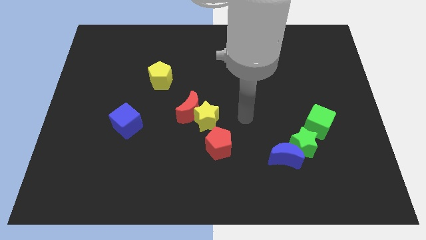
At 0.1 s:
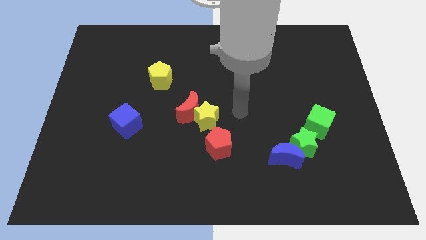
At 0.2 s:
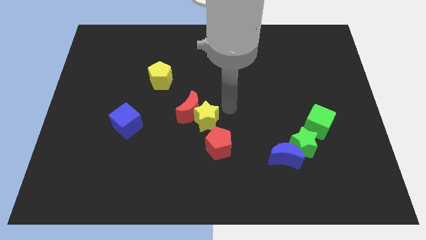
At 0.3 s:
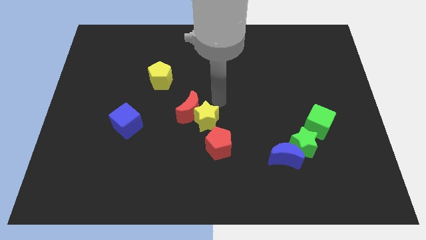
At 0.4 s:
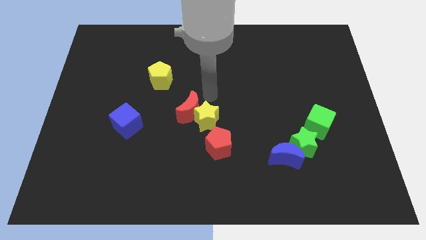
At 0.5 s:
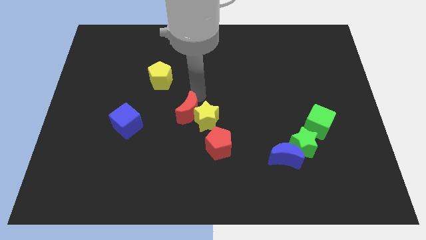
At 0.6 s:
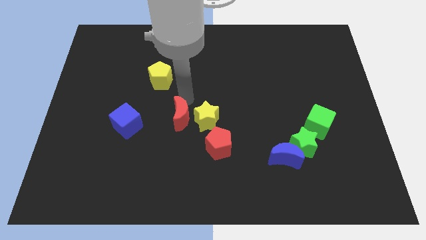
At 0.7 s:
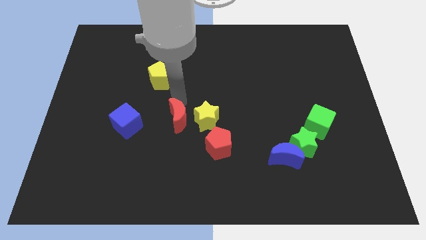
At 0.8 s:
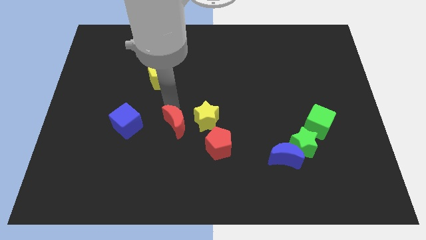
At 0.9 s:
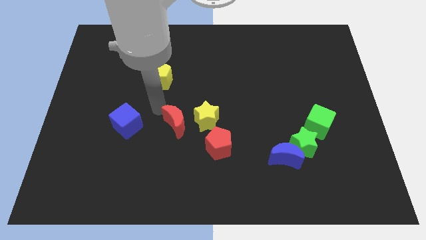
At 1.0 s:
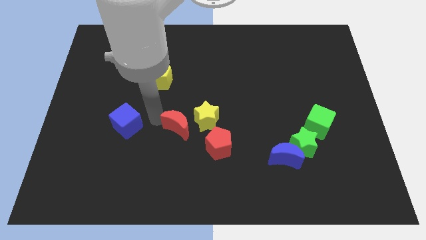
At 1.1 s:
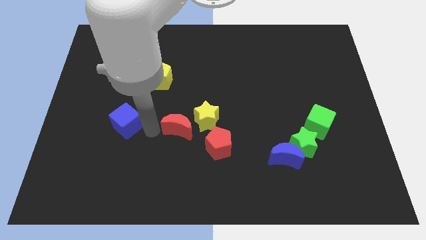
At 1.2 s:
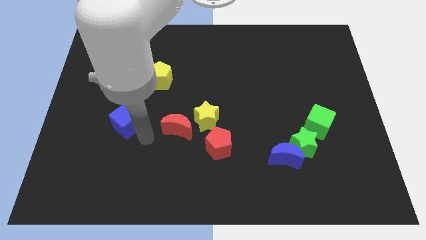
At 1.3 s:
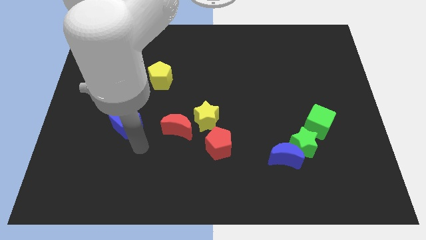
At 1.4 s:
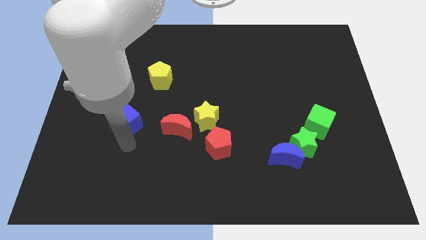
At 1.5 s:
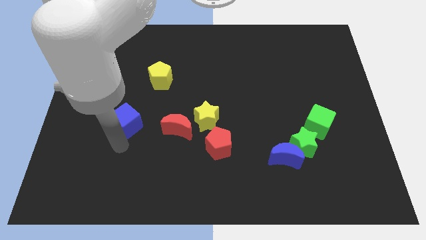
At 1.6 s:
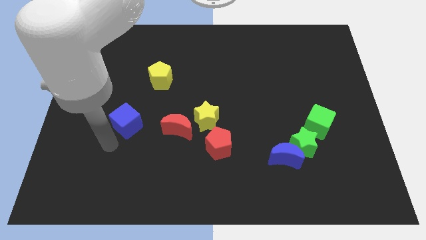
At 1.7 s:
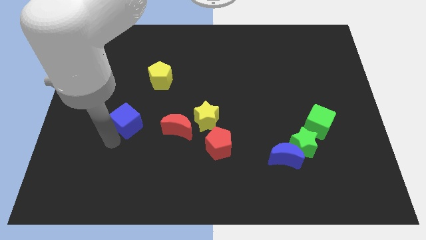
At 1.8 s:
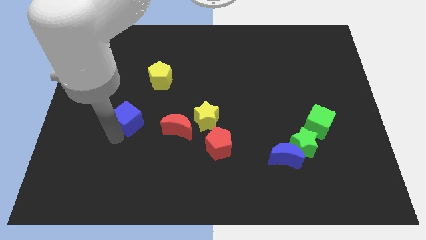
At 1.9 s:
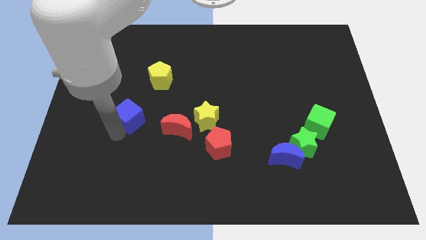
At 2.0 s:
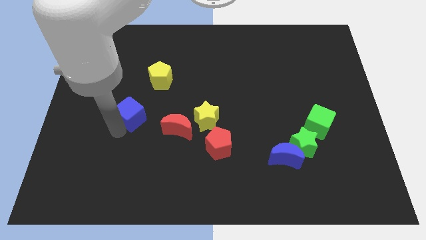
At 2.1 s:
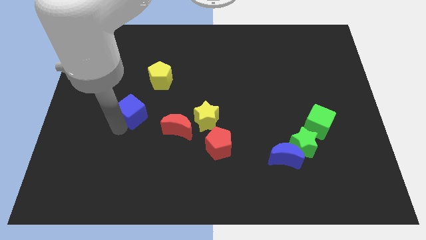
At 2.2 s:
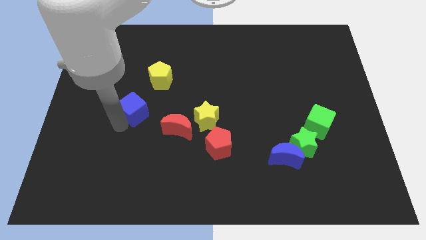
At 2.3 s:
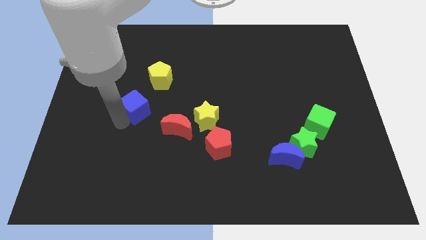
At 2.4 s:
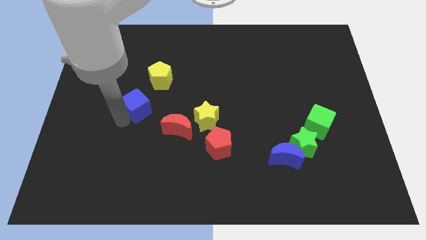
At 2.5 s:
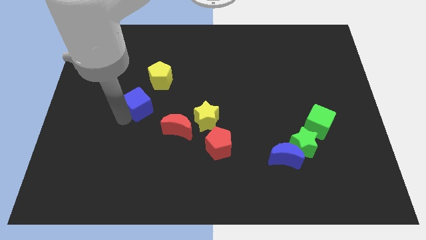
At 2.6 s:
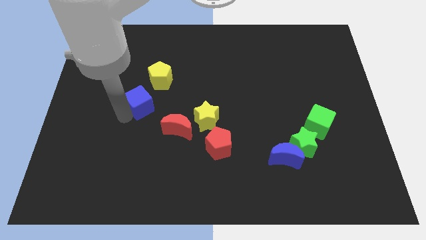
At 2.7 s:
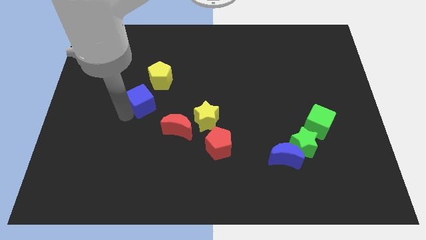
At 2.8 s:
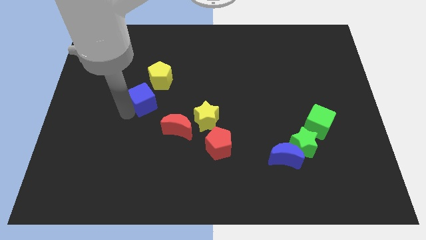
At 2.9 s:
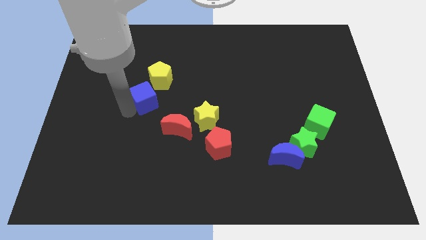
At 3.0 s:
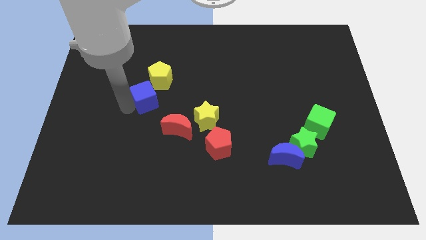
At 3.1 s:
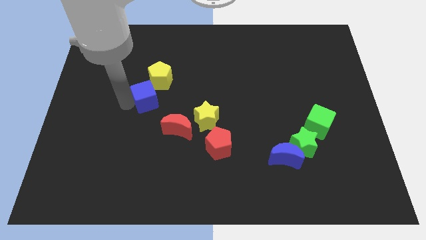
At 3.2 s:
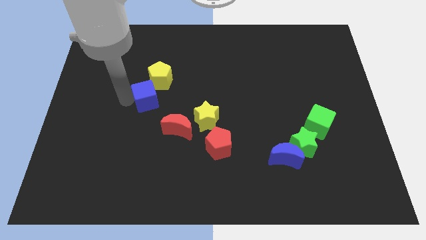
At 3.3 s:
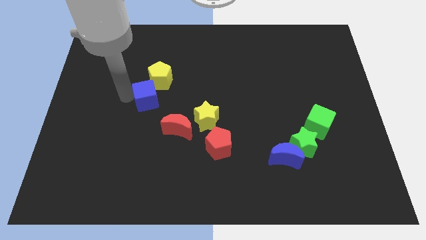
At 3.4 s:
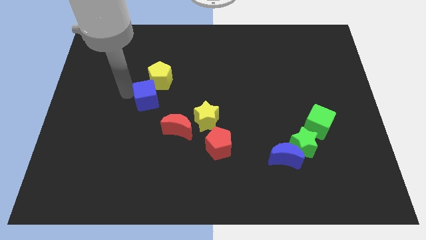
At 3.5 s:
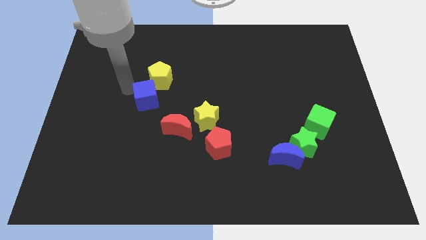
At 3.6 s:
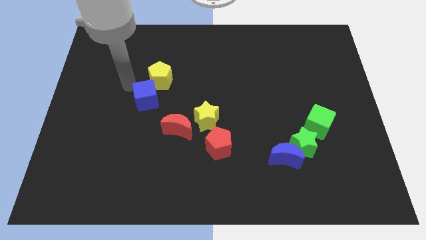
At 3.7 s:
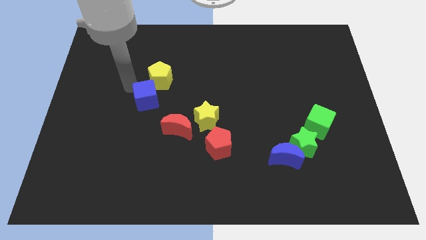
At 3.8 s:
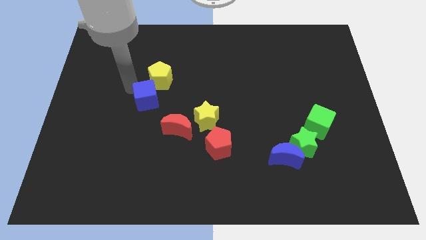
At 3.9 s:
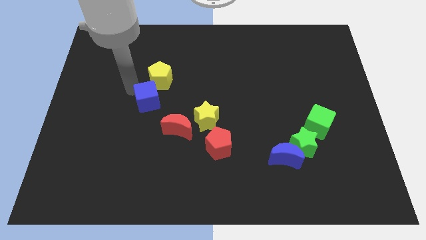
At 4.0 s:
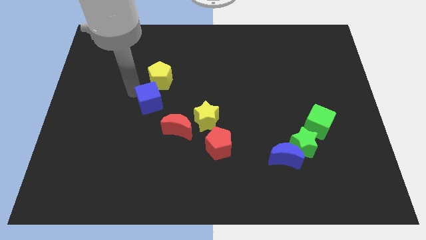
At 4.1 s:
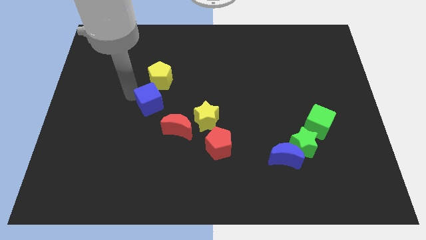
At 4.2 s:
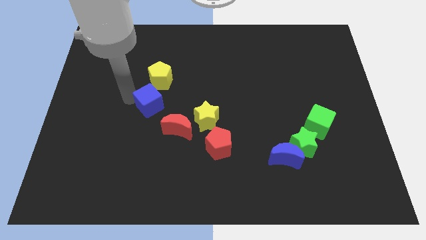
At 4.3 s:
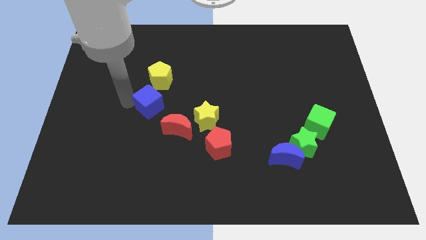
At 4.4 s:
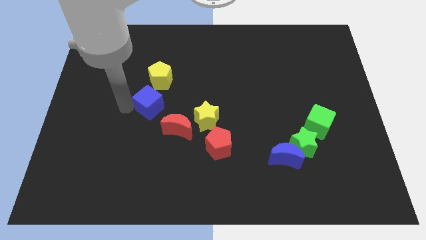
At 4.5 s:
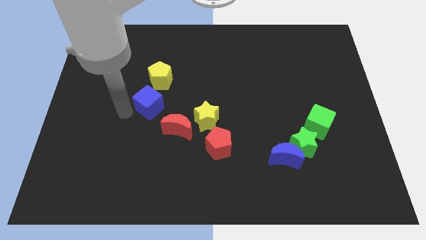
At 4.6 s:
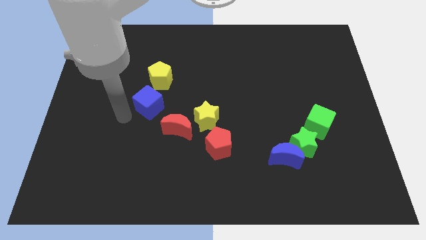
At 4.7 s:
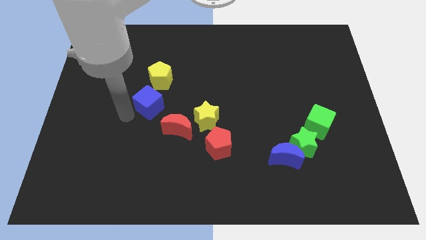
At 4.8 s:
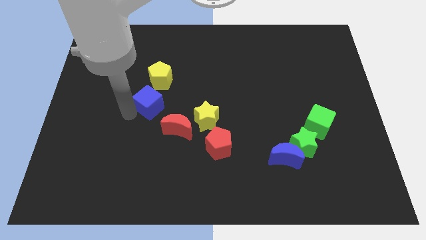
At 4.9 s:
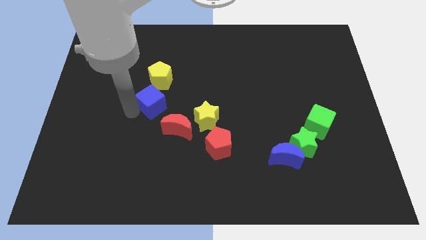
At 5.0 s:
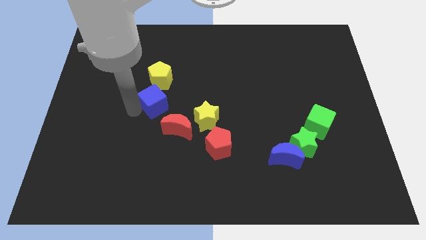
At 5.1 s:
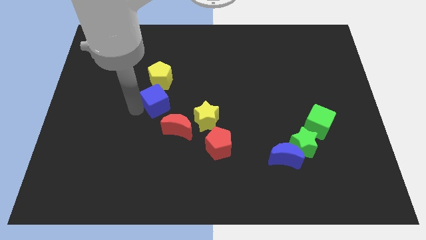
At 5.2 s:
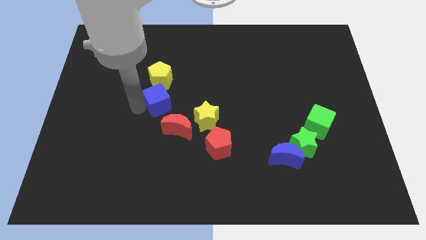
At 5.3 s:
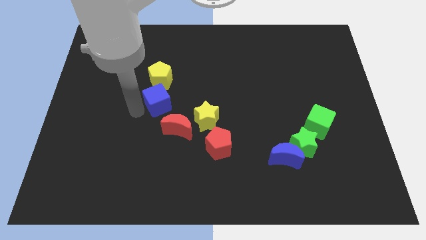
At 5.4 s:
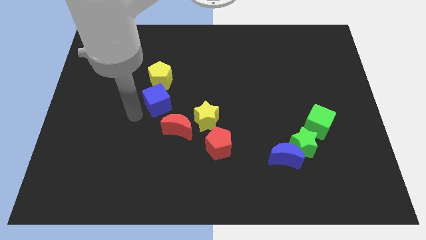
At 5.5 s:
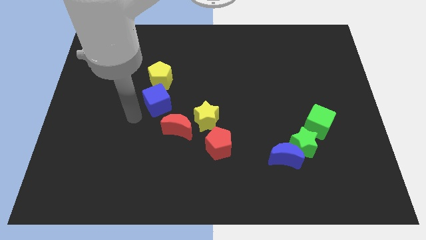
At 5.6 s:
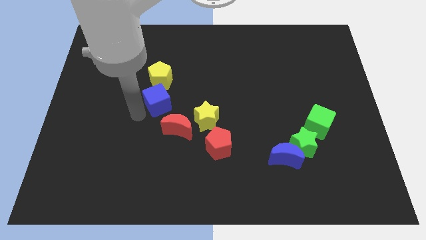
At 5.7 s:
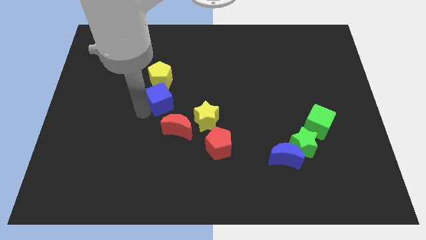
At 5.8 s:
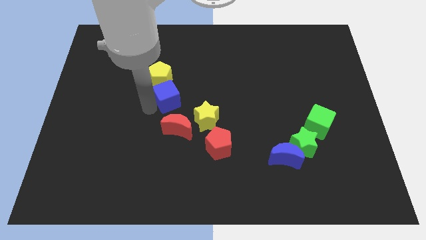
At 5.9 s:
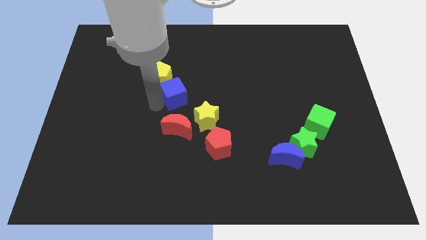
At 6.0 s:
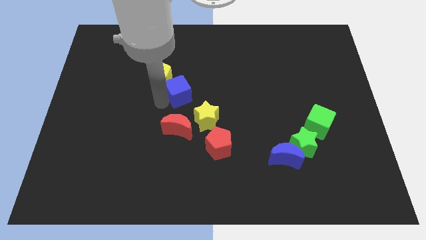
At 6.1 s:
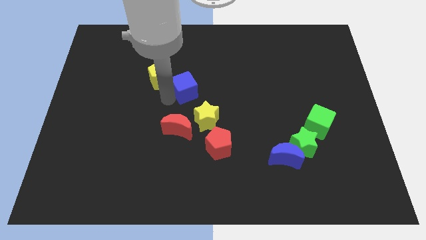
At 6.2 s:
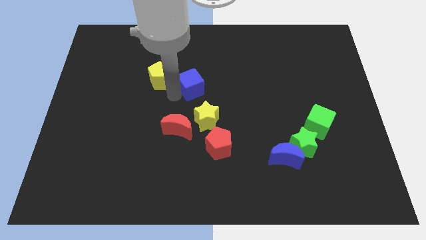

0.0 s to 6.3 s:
put the blue cube above the yellow star

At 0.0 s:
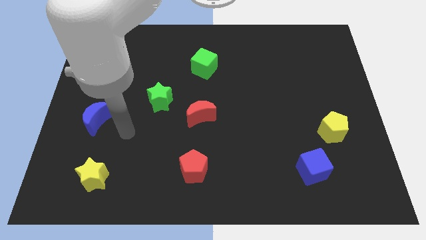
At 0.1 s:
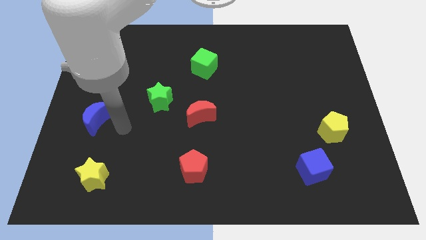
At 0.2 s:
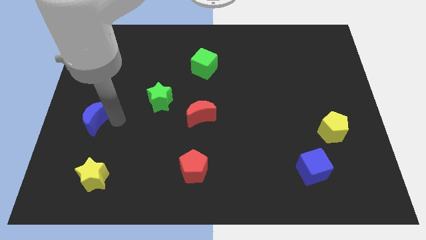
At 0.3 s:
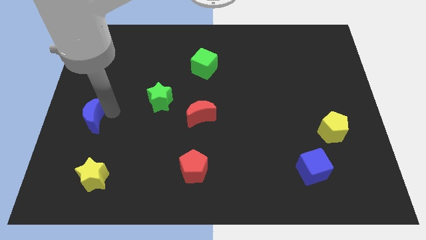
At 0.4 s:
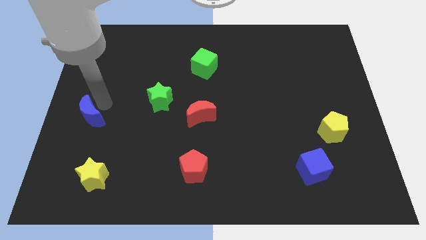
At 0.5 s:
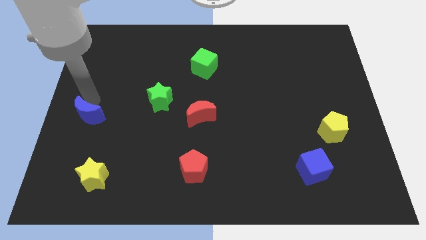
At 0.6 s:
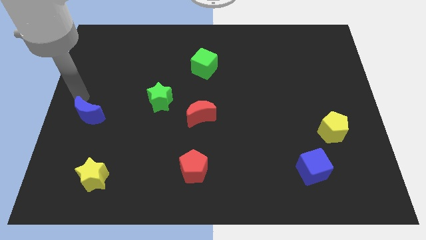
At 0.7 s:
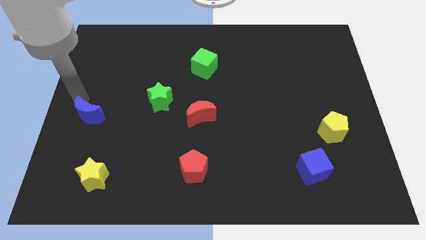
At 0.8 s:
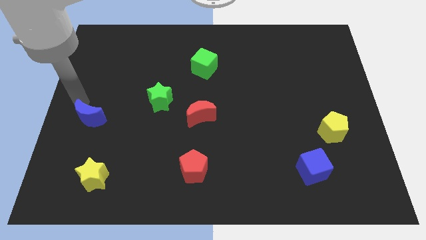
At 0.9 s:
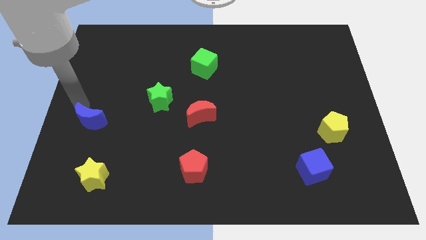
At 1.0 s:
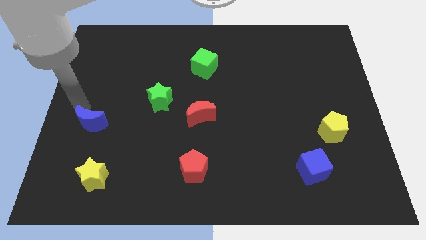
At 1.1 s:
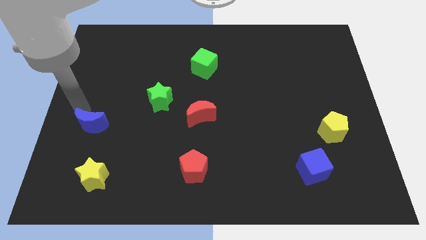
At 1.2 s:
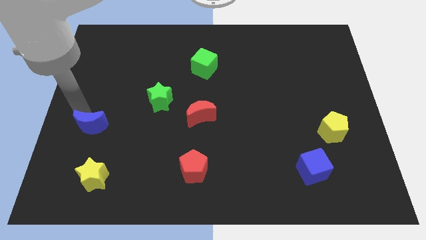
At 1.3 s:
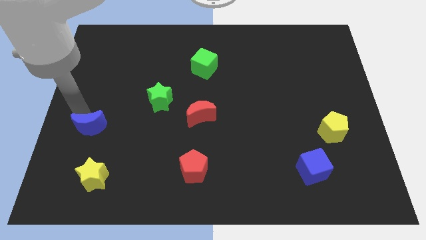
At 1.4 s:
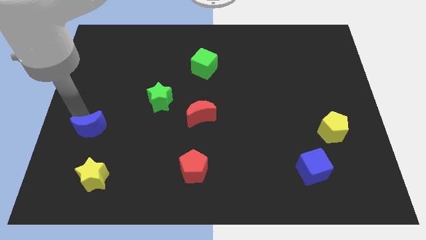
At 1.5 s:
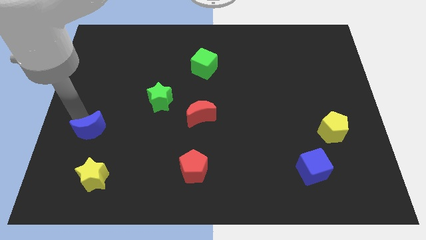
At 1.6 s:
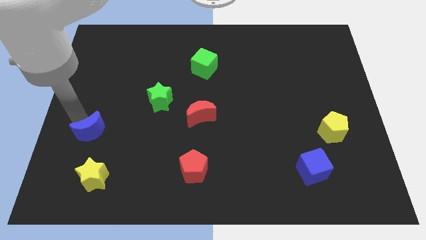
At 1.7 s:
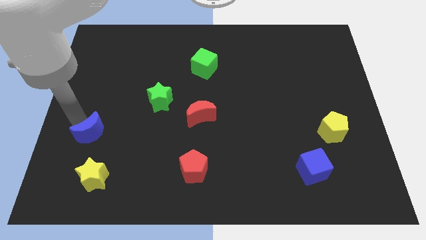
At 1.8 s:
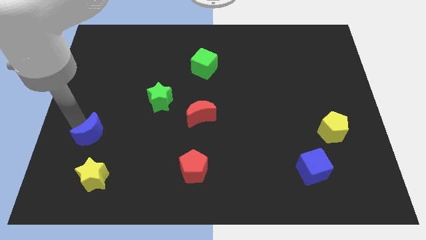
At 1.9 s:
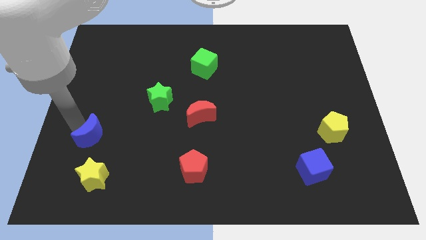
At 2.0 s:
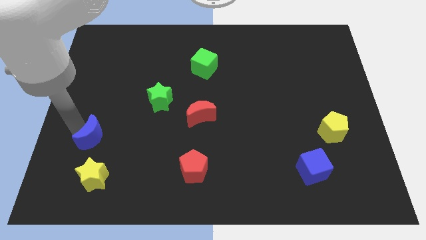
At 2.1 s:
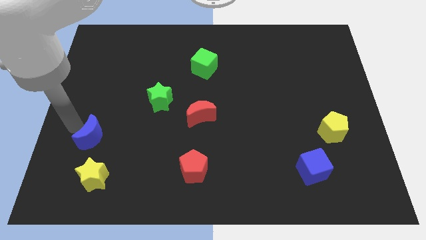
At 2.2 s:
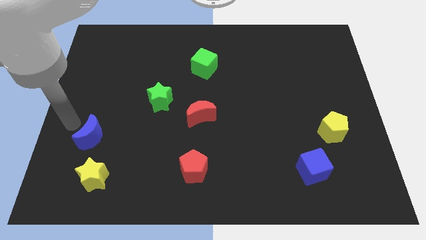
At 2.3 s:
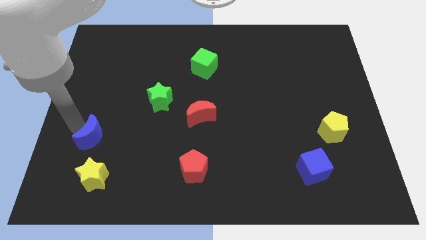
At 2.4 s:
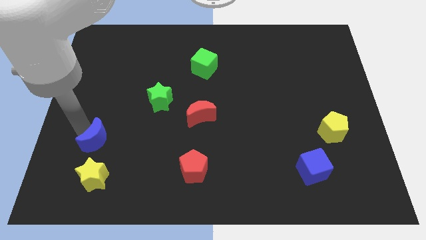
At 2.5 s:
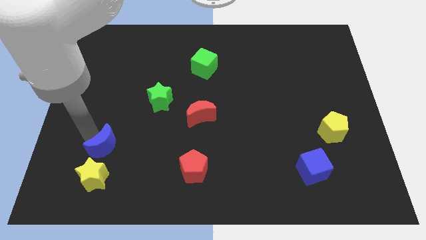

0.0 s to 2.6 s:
move the blue moon to the top right side of the yellow star
